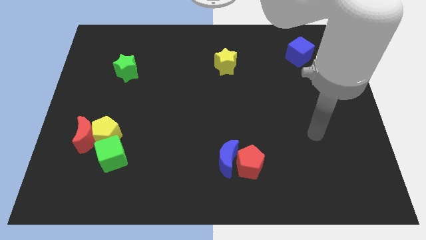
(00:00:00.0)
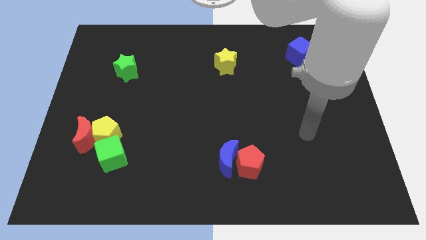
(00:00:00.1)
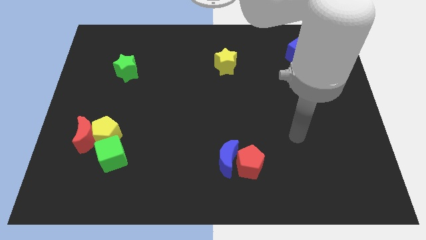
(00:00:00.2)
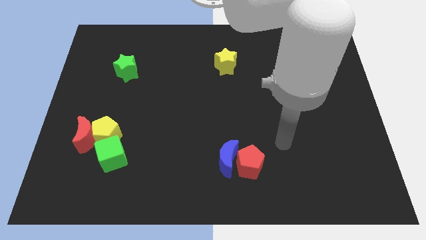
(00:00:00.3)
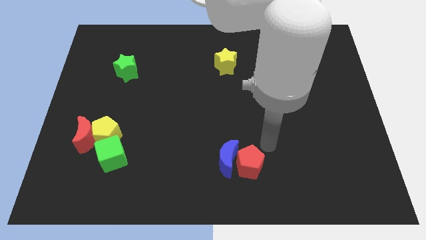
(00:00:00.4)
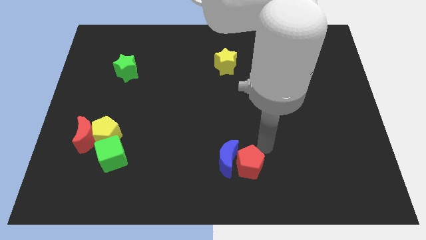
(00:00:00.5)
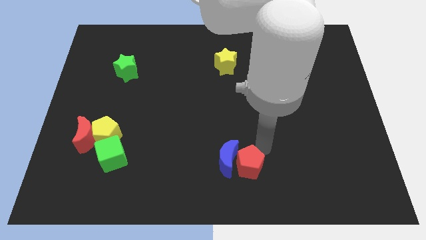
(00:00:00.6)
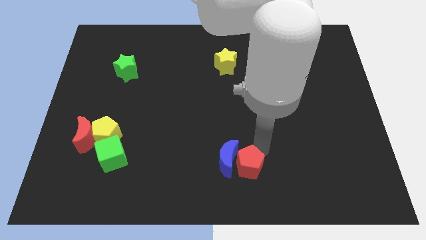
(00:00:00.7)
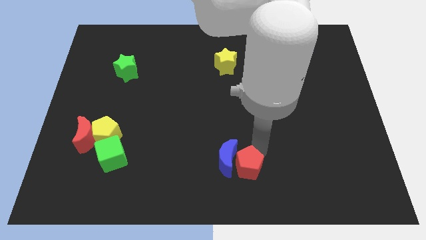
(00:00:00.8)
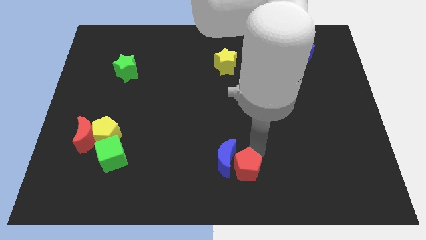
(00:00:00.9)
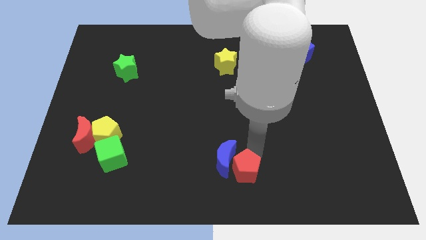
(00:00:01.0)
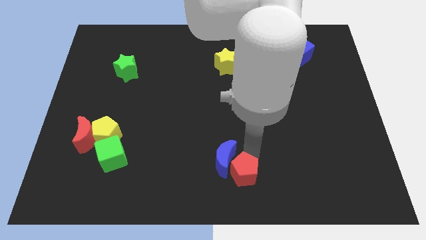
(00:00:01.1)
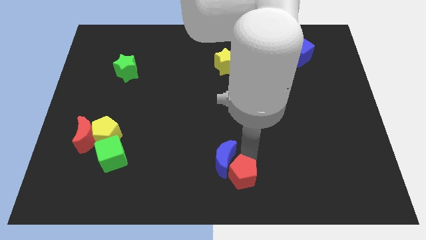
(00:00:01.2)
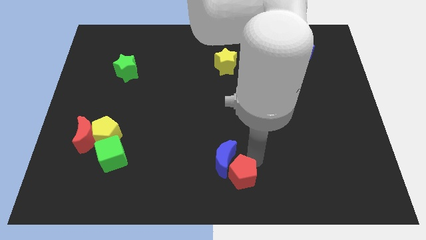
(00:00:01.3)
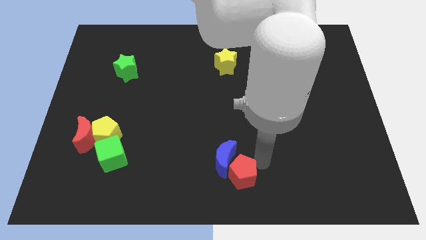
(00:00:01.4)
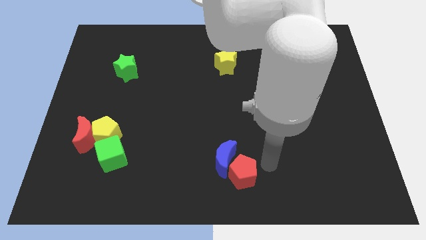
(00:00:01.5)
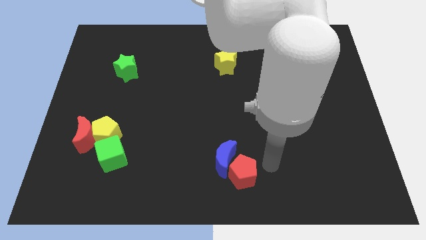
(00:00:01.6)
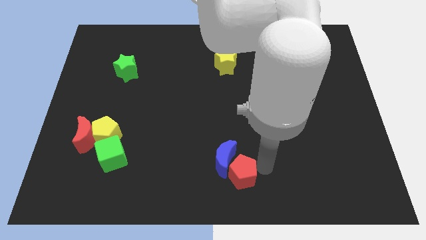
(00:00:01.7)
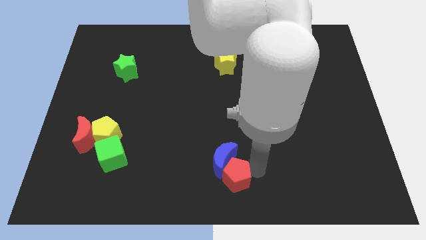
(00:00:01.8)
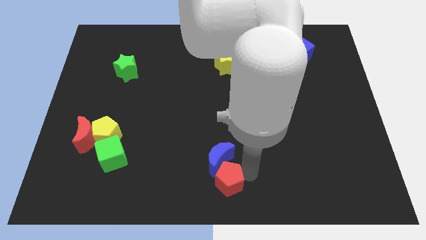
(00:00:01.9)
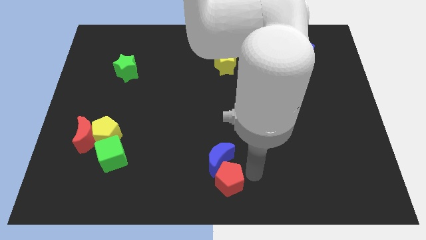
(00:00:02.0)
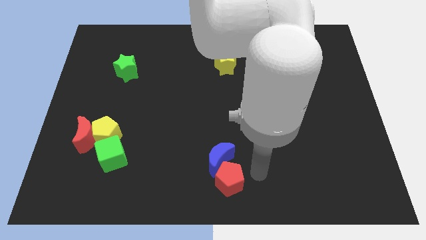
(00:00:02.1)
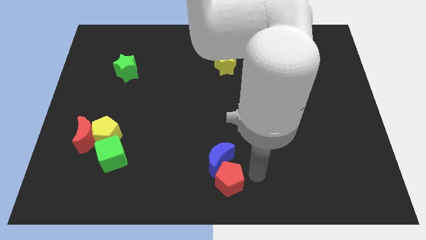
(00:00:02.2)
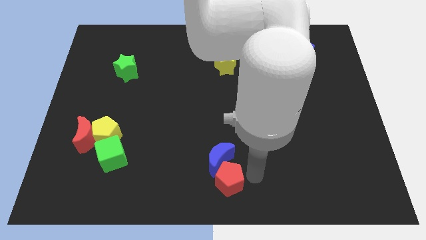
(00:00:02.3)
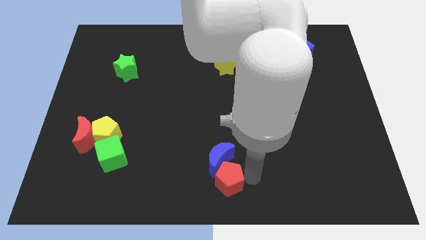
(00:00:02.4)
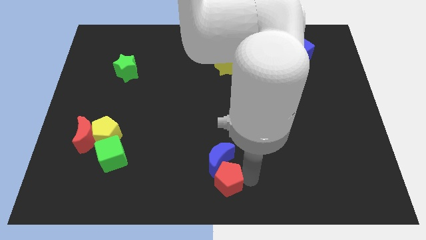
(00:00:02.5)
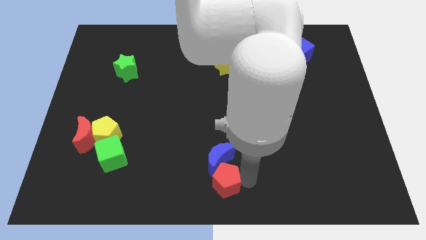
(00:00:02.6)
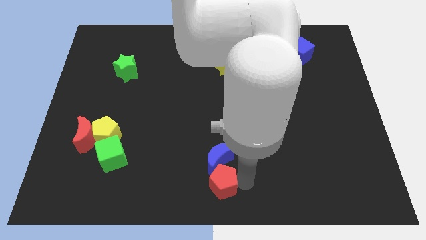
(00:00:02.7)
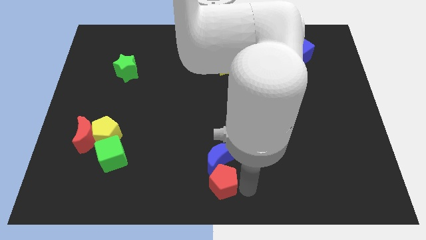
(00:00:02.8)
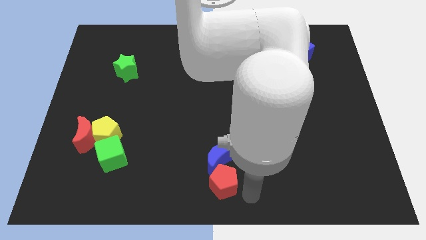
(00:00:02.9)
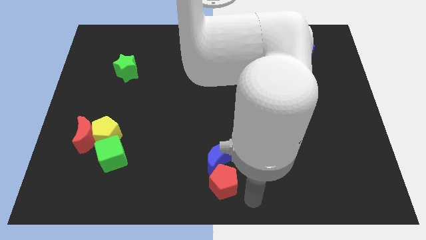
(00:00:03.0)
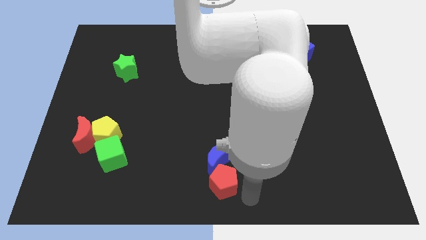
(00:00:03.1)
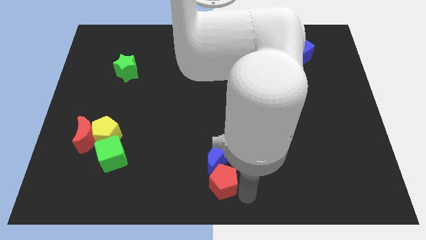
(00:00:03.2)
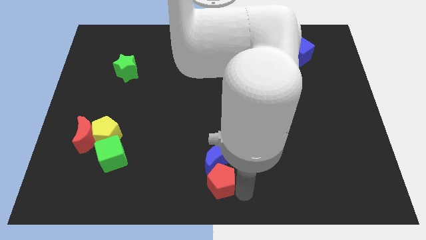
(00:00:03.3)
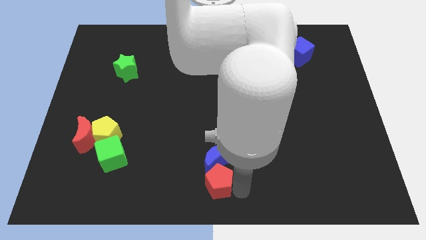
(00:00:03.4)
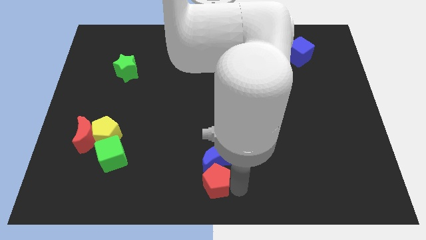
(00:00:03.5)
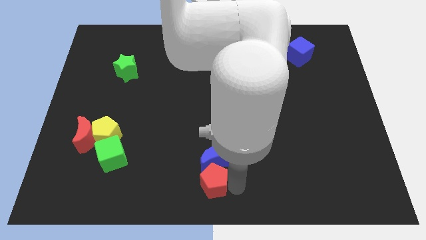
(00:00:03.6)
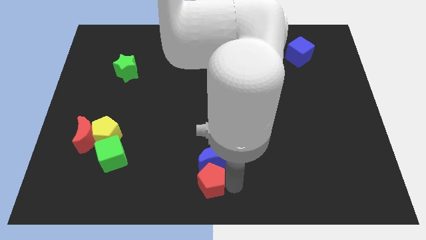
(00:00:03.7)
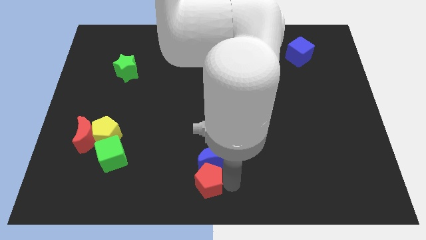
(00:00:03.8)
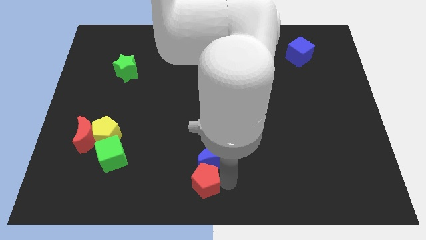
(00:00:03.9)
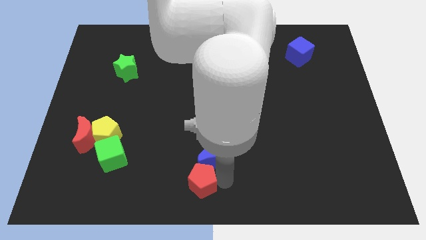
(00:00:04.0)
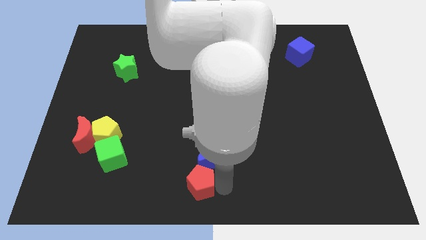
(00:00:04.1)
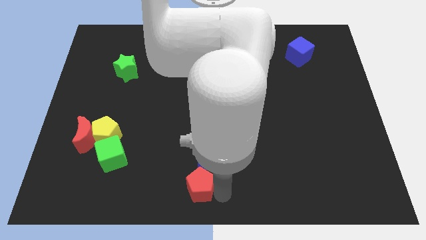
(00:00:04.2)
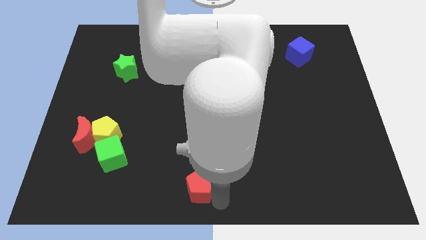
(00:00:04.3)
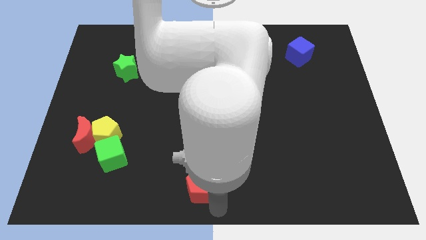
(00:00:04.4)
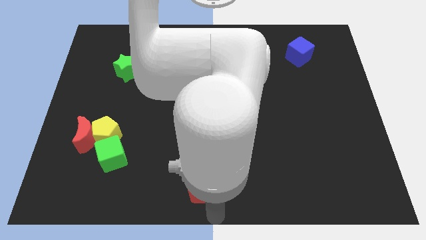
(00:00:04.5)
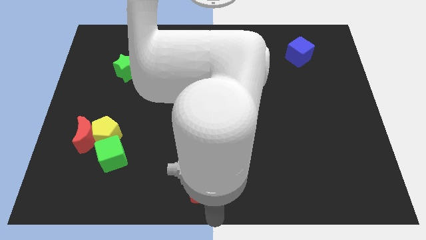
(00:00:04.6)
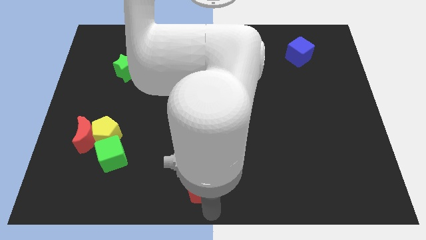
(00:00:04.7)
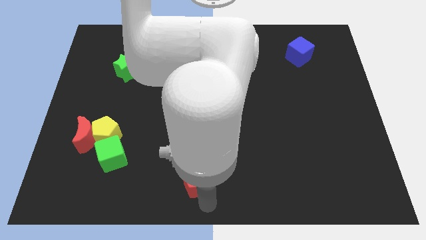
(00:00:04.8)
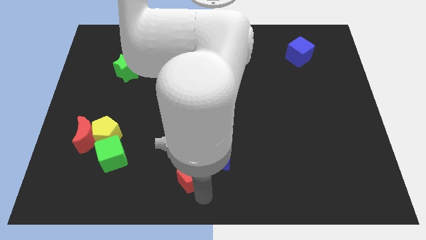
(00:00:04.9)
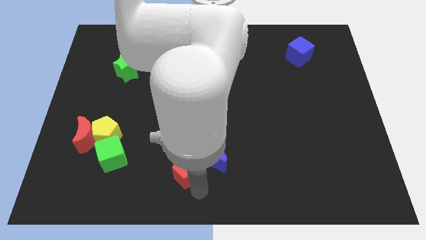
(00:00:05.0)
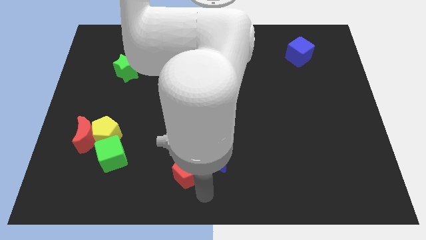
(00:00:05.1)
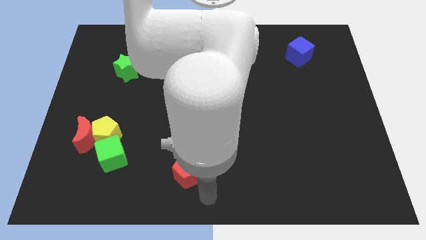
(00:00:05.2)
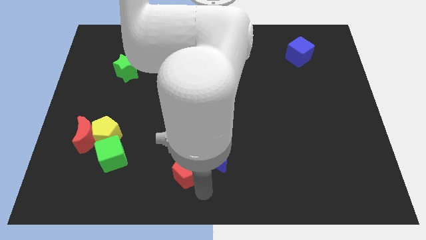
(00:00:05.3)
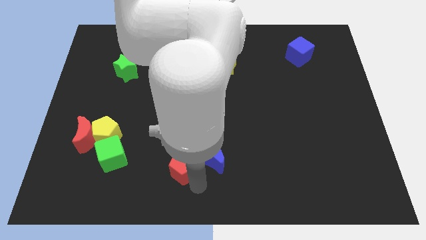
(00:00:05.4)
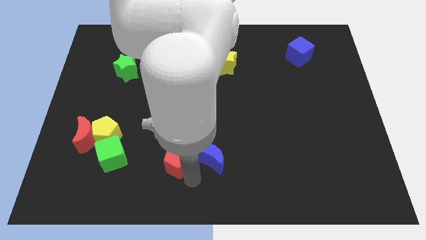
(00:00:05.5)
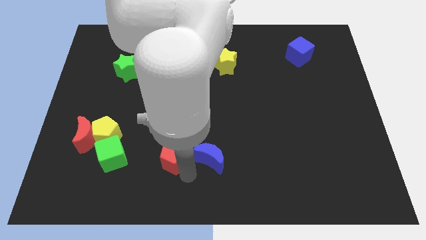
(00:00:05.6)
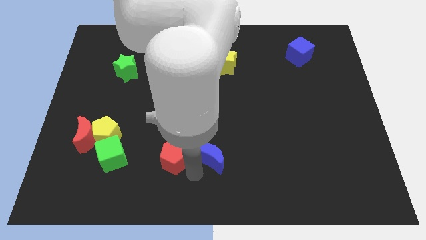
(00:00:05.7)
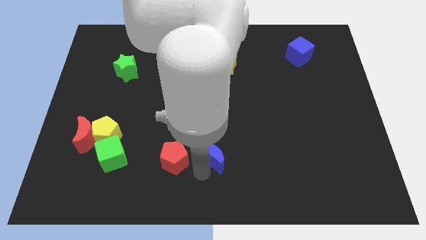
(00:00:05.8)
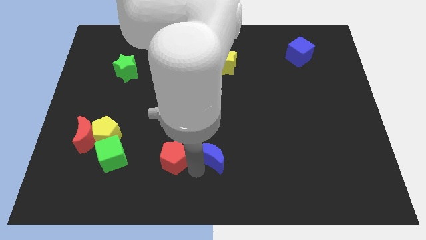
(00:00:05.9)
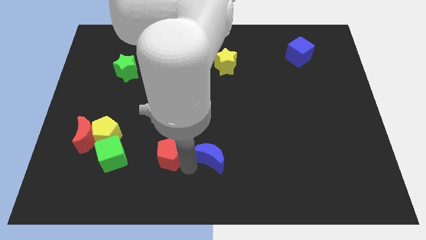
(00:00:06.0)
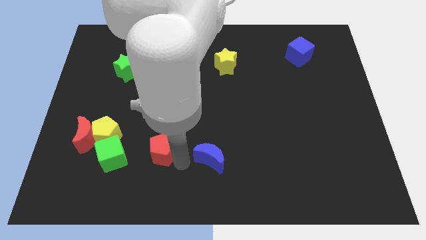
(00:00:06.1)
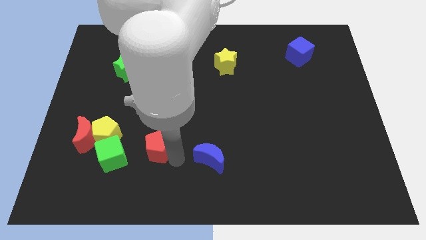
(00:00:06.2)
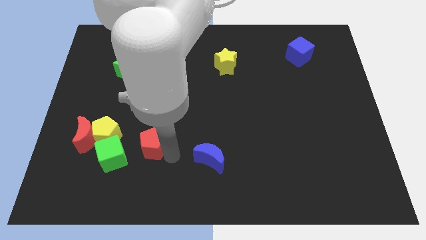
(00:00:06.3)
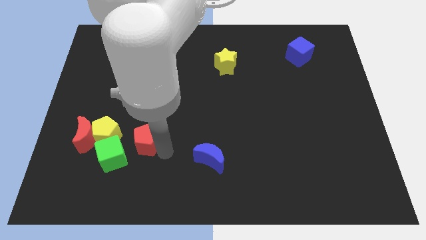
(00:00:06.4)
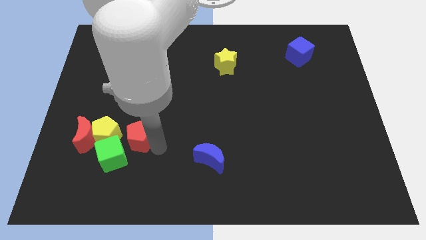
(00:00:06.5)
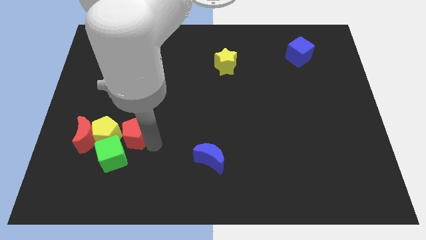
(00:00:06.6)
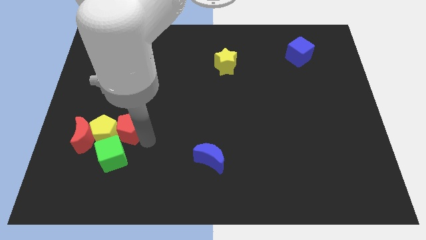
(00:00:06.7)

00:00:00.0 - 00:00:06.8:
push the red pentagon to the yellow pentagon
